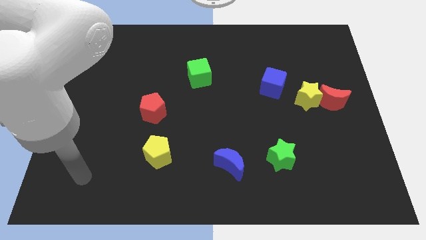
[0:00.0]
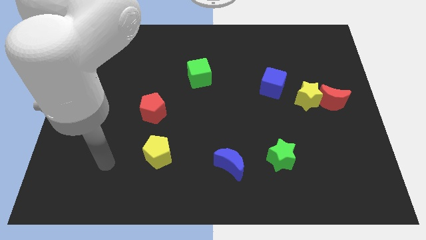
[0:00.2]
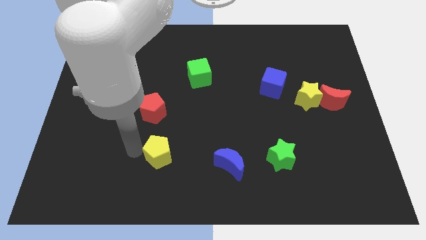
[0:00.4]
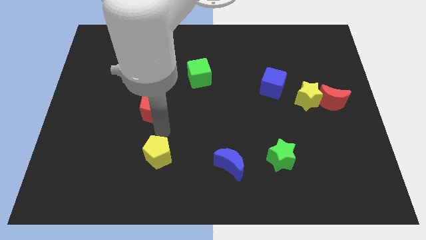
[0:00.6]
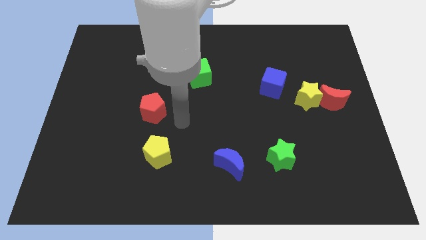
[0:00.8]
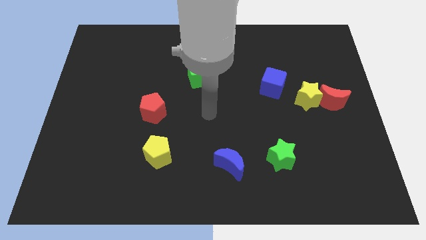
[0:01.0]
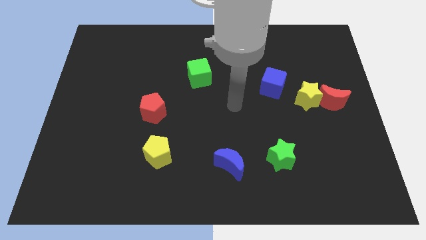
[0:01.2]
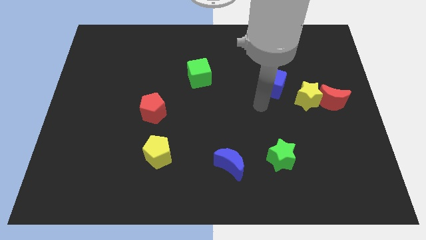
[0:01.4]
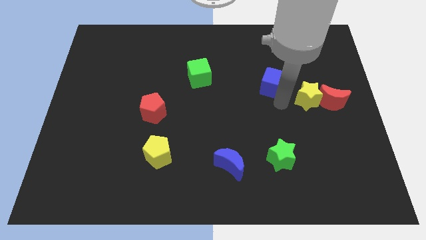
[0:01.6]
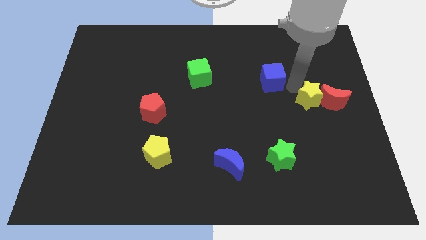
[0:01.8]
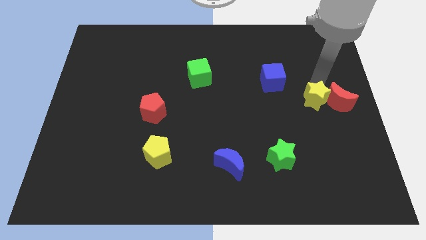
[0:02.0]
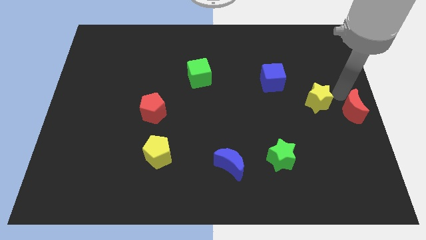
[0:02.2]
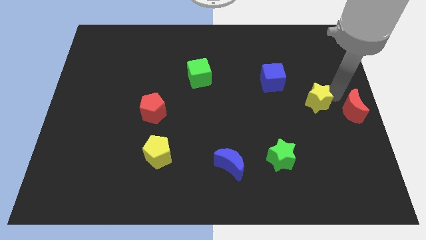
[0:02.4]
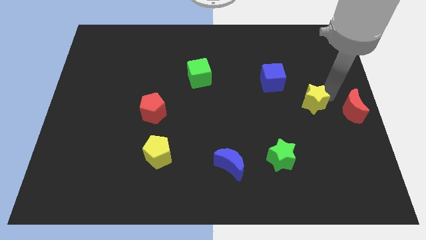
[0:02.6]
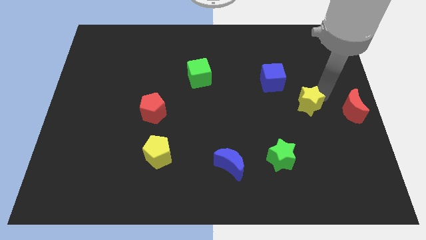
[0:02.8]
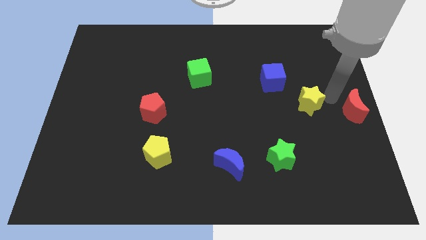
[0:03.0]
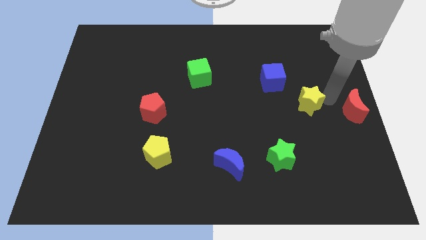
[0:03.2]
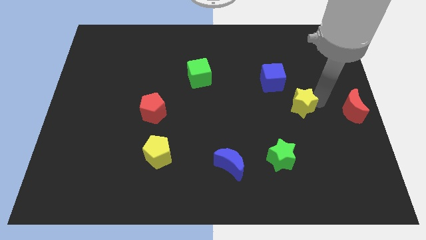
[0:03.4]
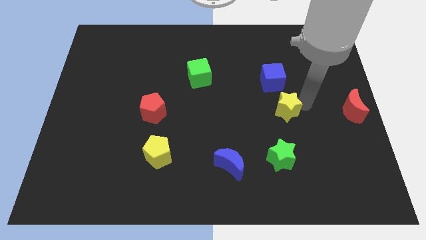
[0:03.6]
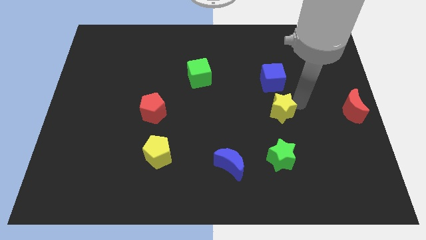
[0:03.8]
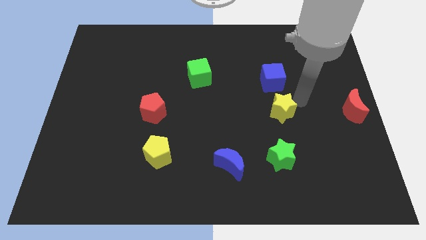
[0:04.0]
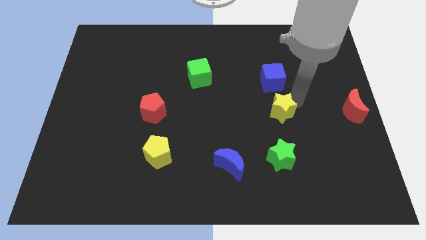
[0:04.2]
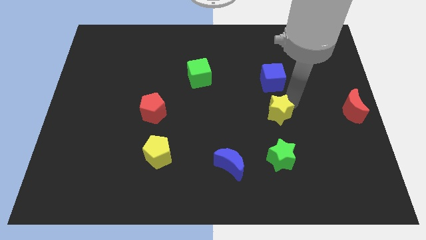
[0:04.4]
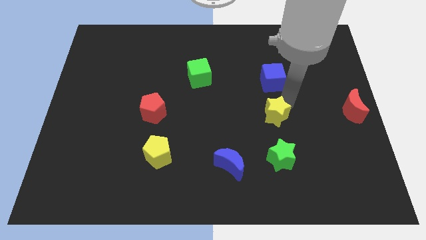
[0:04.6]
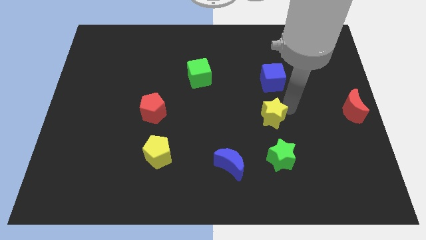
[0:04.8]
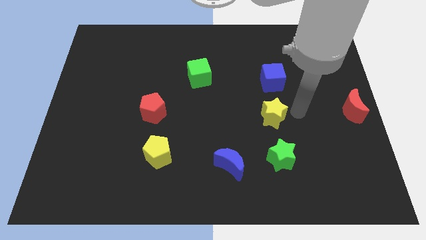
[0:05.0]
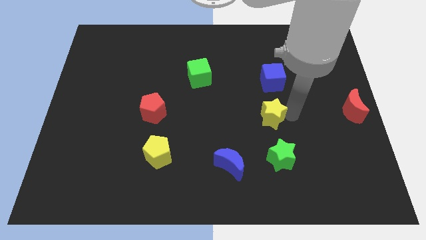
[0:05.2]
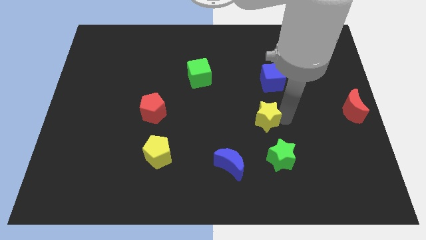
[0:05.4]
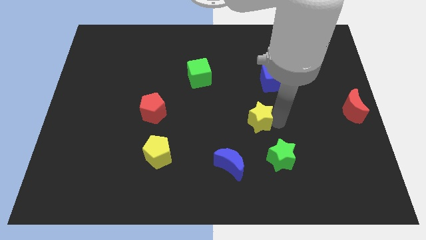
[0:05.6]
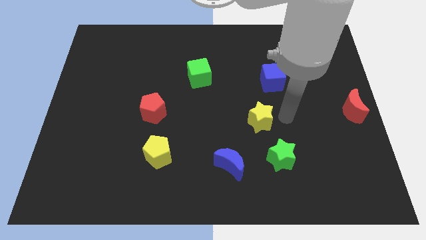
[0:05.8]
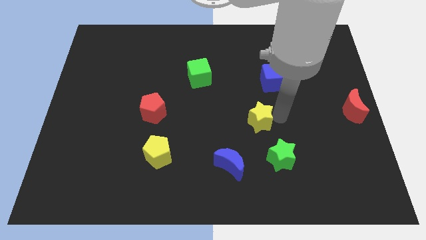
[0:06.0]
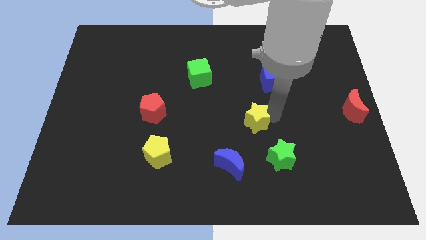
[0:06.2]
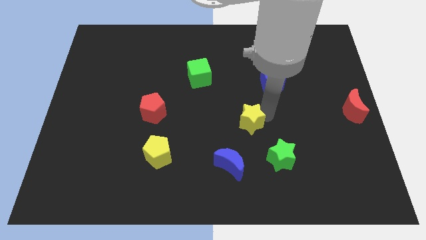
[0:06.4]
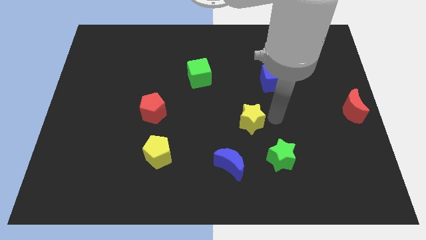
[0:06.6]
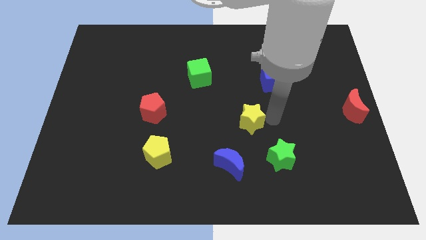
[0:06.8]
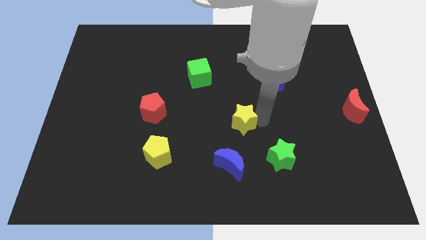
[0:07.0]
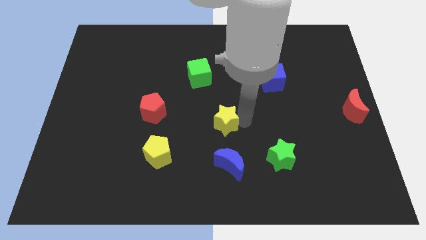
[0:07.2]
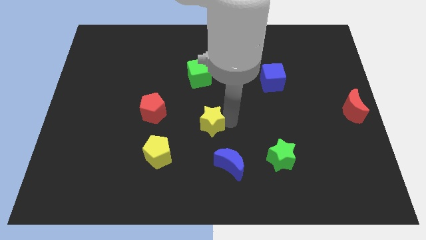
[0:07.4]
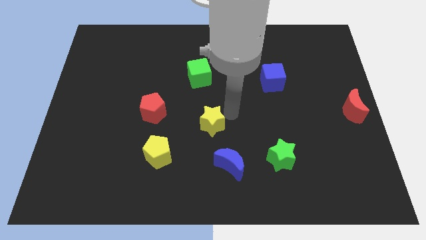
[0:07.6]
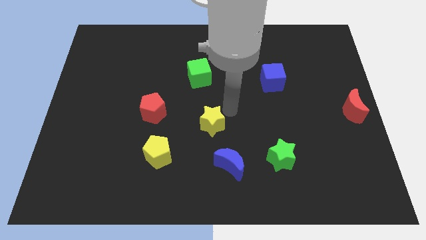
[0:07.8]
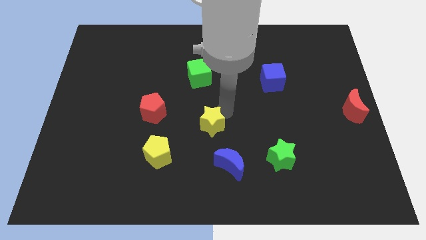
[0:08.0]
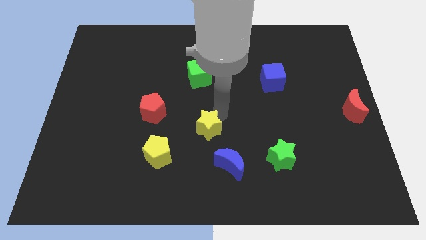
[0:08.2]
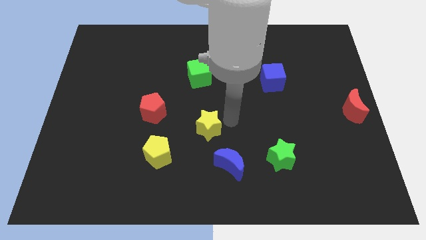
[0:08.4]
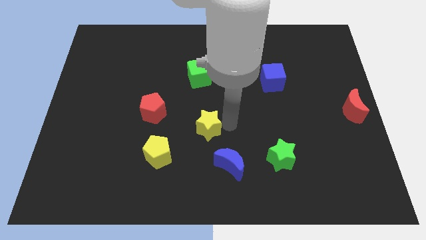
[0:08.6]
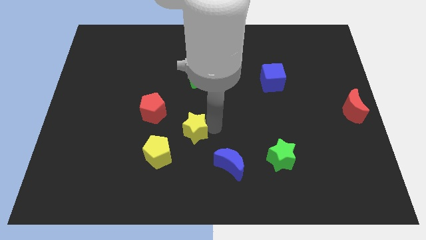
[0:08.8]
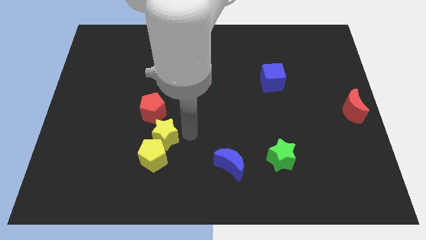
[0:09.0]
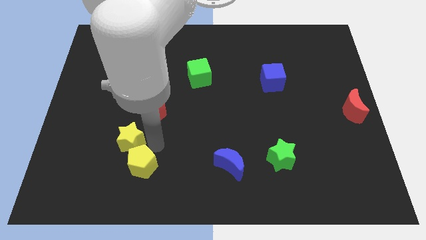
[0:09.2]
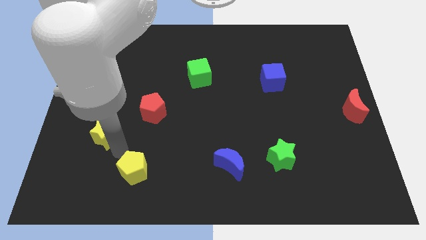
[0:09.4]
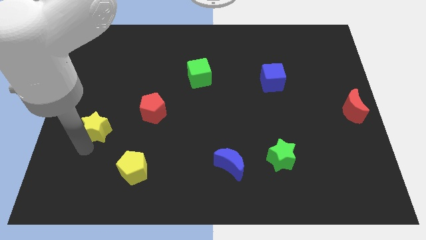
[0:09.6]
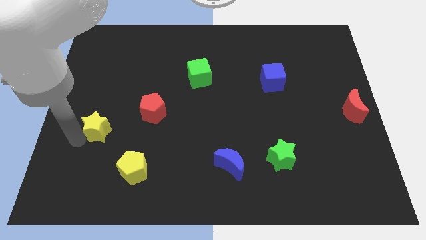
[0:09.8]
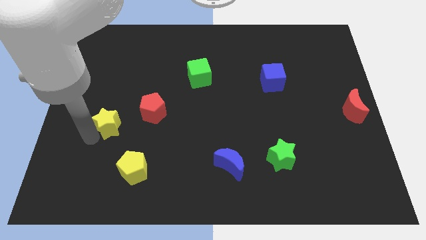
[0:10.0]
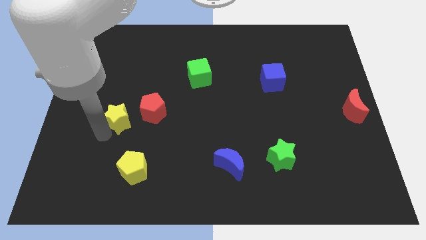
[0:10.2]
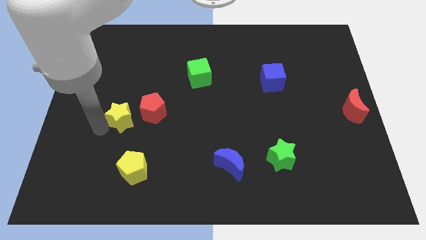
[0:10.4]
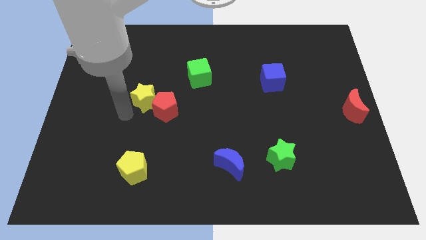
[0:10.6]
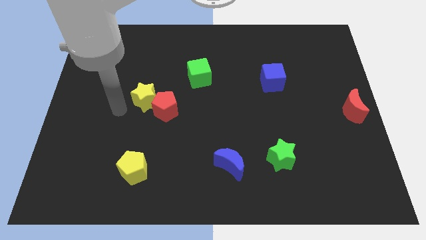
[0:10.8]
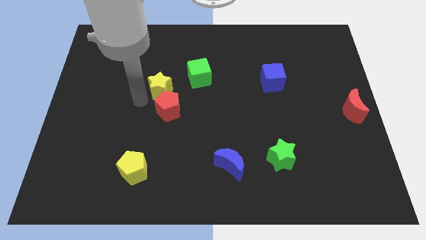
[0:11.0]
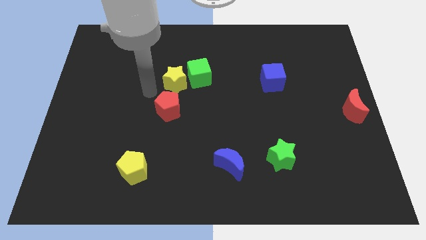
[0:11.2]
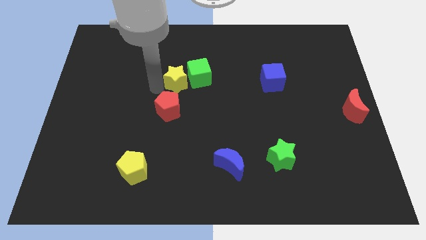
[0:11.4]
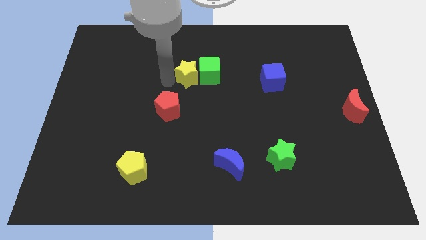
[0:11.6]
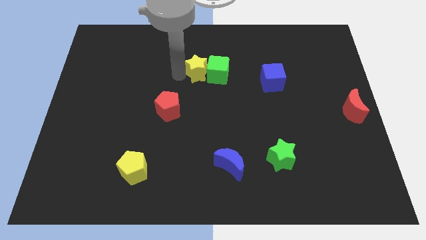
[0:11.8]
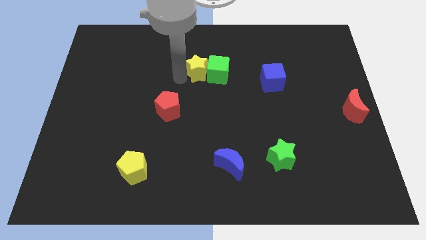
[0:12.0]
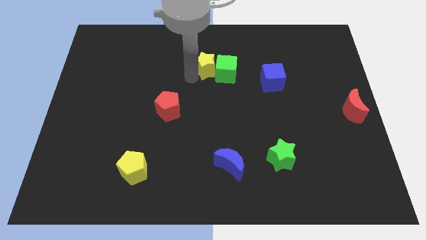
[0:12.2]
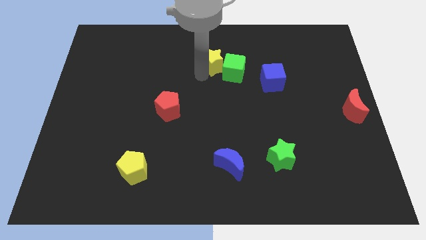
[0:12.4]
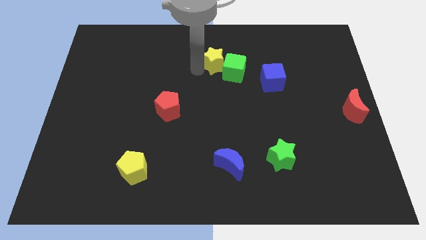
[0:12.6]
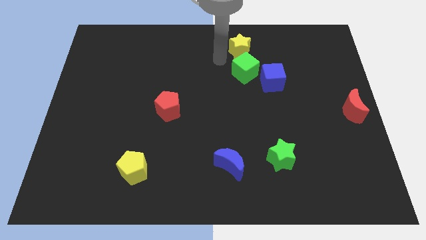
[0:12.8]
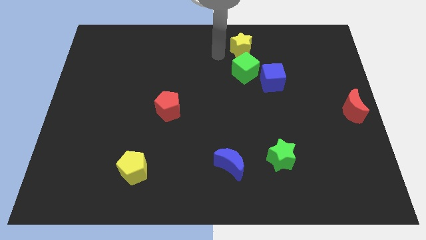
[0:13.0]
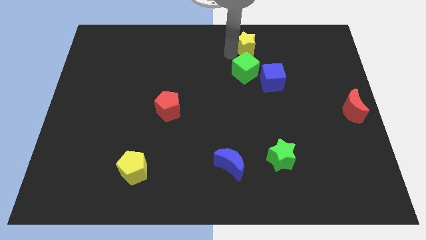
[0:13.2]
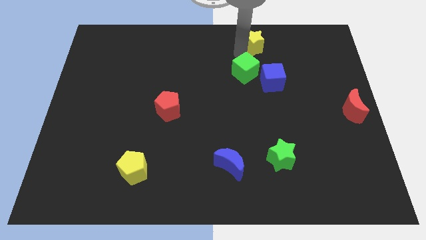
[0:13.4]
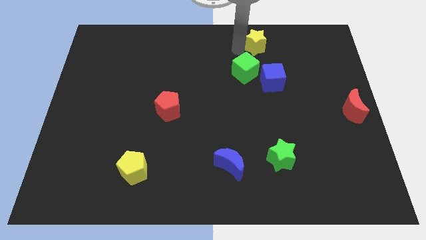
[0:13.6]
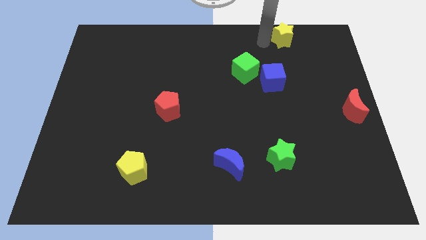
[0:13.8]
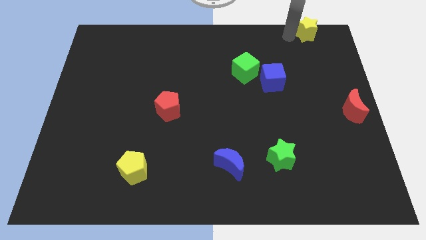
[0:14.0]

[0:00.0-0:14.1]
slide the yellow star to the top right corner
